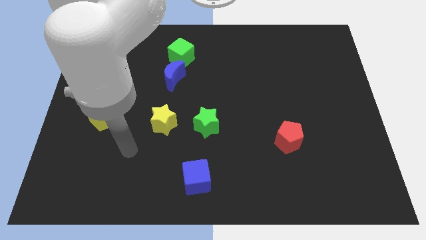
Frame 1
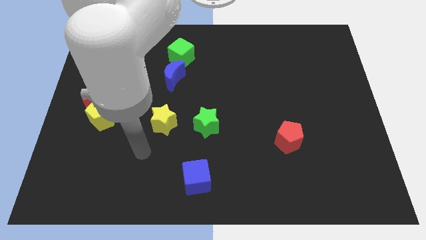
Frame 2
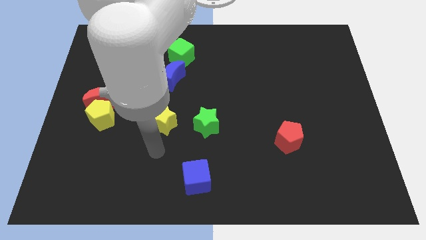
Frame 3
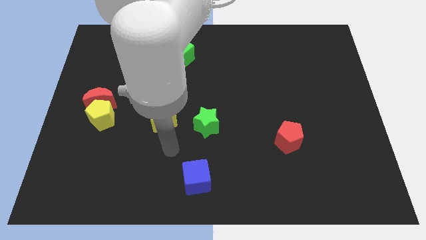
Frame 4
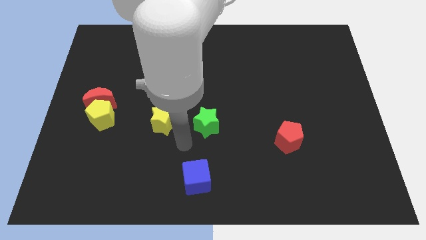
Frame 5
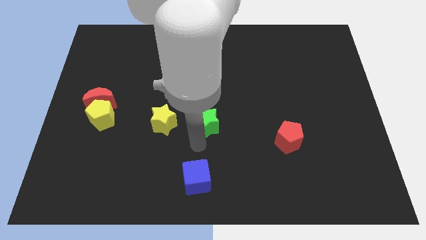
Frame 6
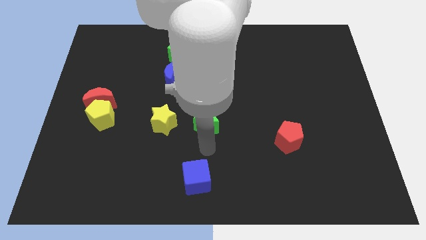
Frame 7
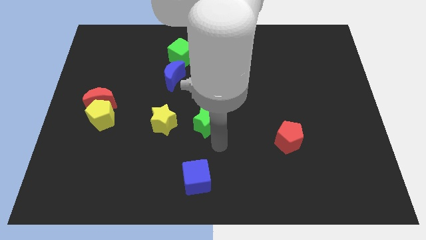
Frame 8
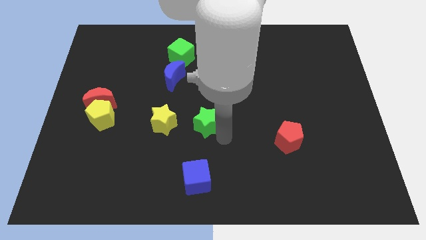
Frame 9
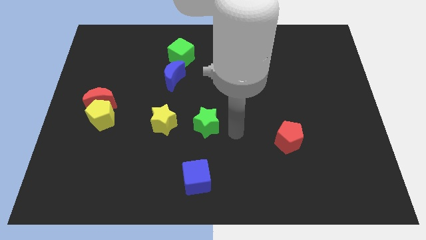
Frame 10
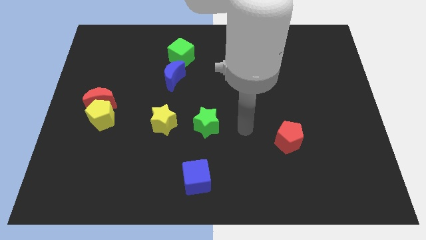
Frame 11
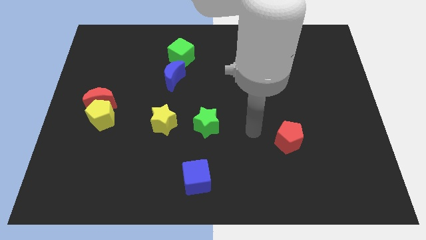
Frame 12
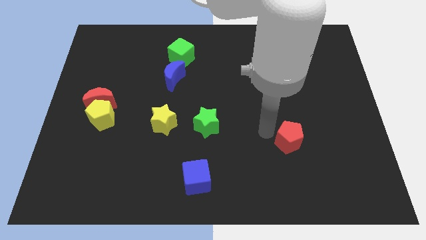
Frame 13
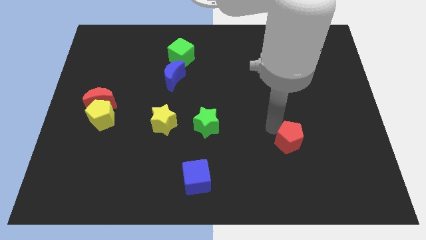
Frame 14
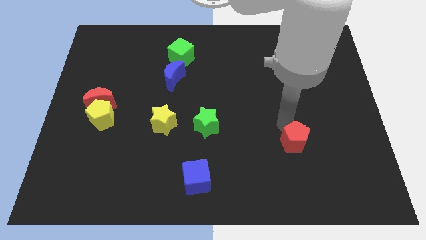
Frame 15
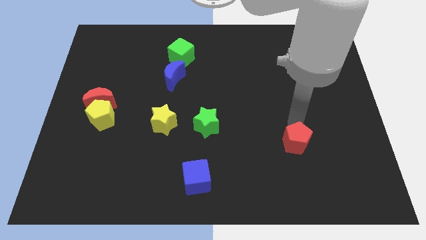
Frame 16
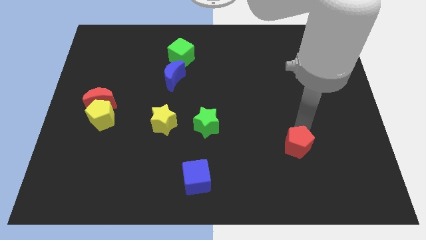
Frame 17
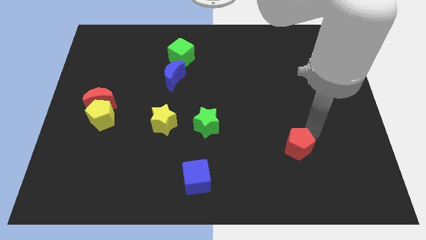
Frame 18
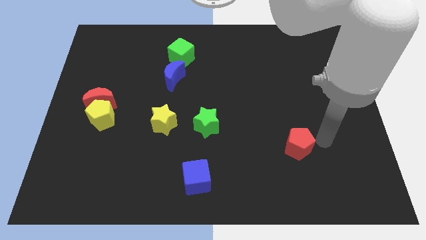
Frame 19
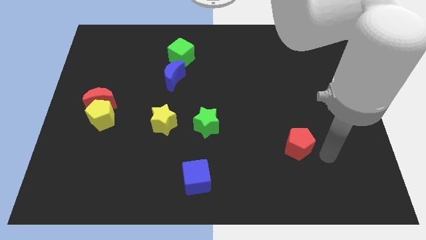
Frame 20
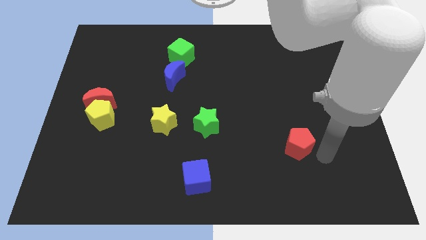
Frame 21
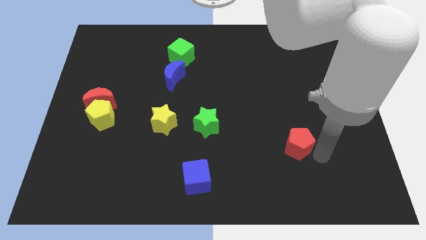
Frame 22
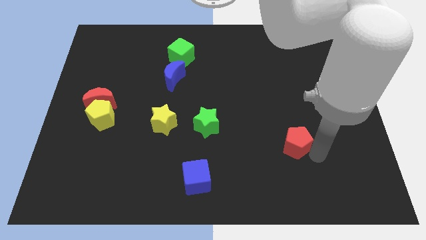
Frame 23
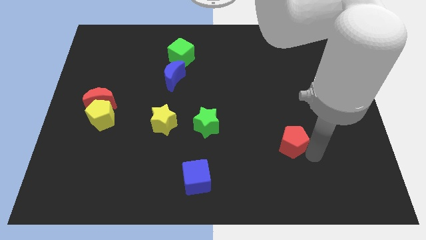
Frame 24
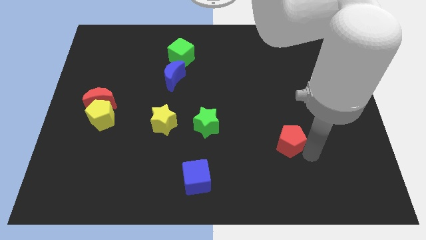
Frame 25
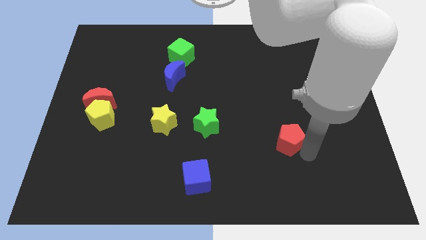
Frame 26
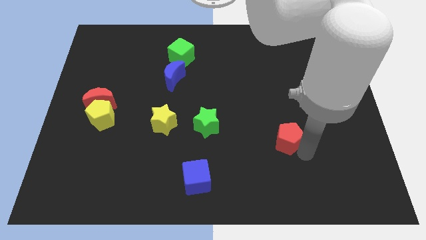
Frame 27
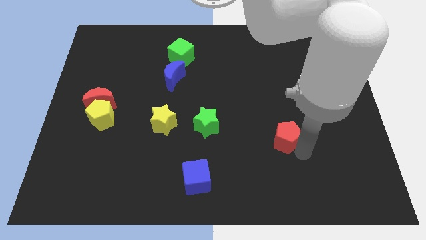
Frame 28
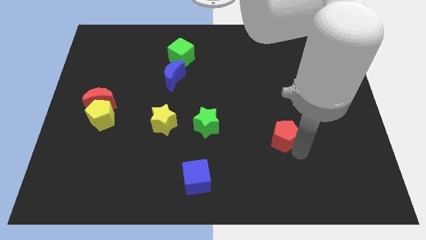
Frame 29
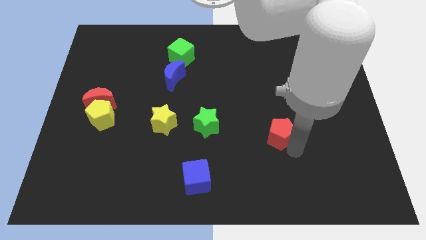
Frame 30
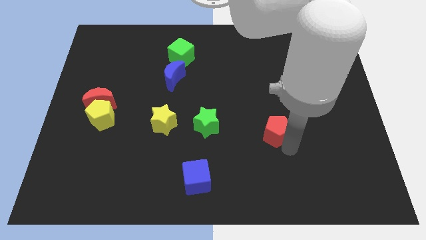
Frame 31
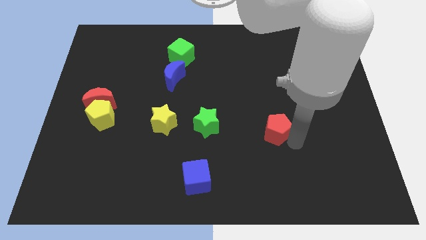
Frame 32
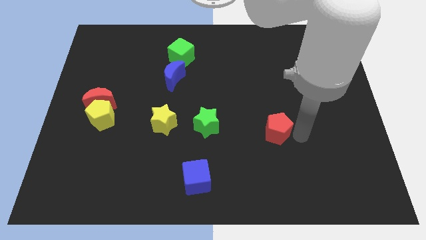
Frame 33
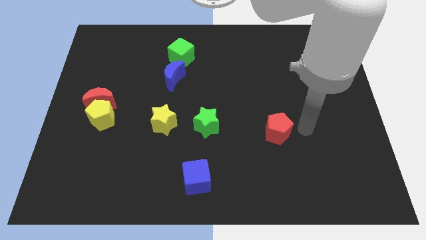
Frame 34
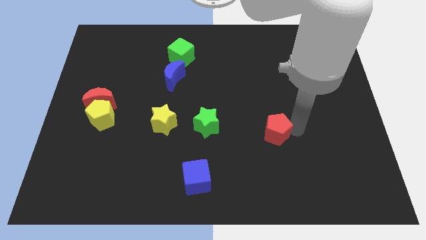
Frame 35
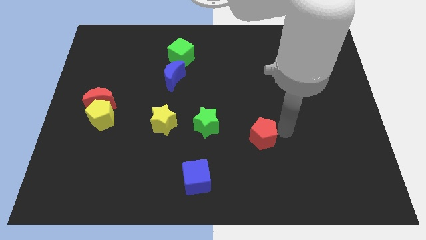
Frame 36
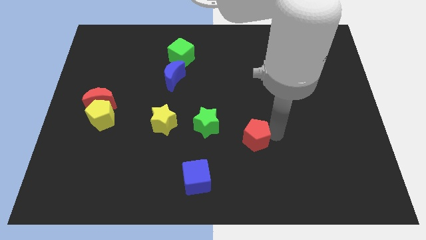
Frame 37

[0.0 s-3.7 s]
slightly move the red pentagon to the left

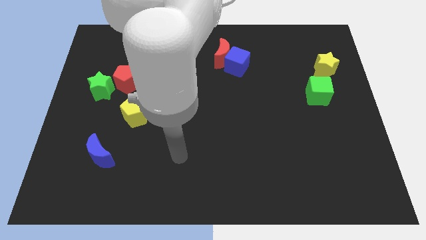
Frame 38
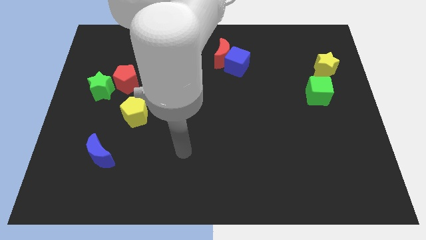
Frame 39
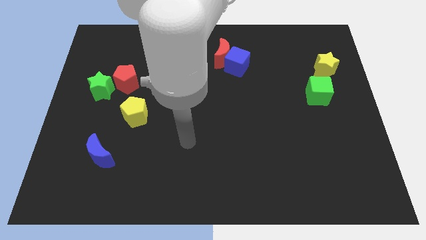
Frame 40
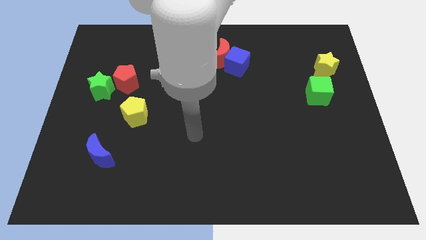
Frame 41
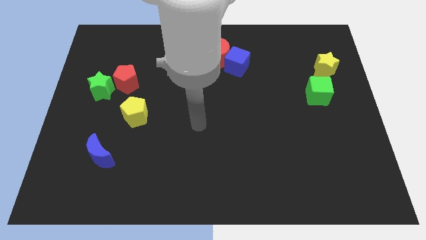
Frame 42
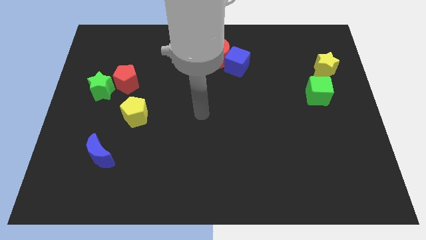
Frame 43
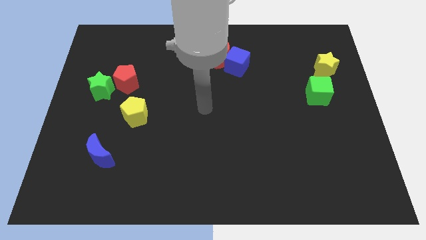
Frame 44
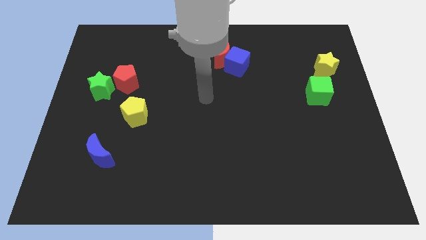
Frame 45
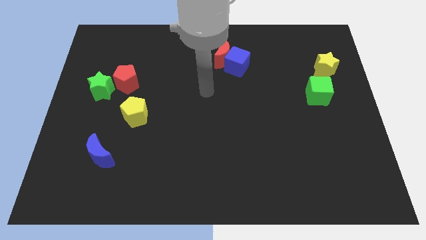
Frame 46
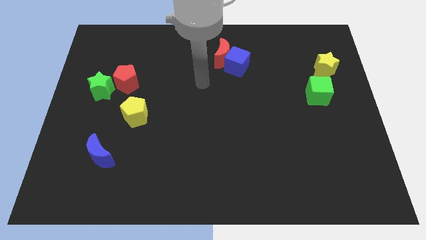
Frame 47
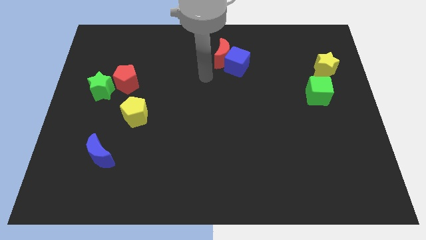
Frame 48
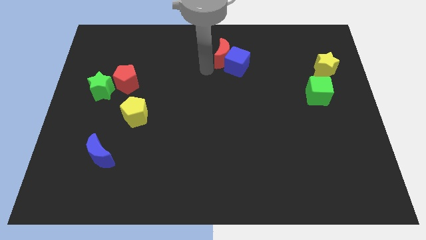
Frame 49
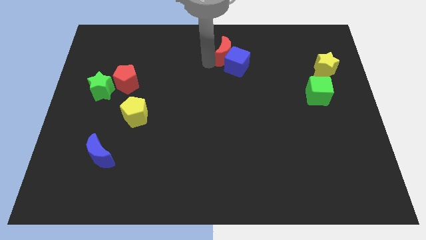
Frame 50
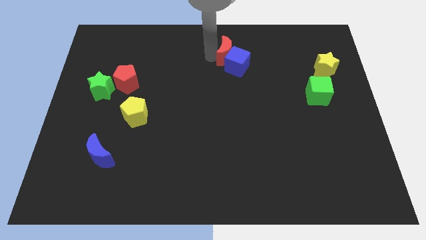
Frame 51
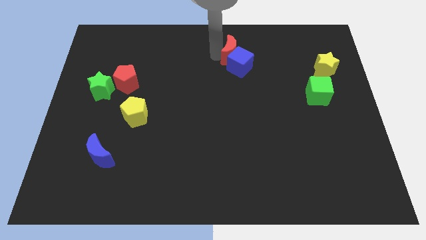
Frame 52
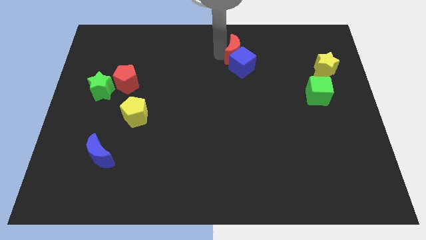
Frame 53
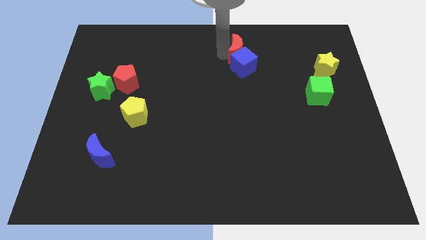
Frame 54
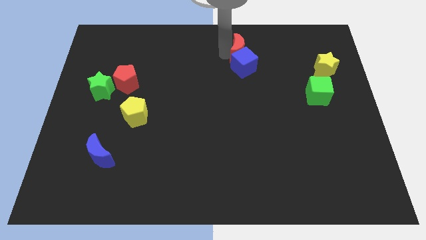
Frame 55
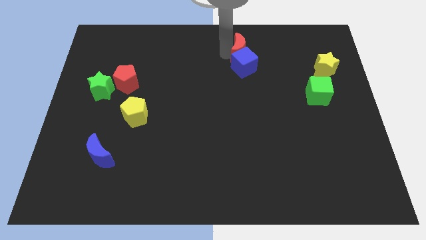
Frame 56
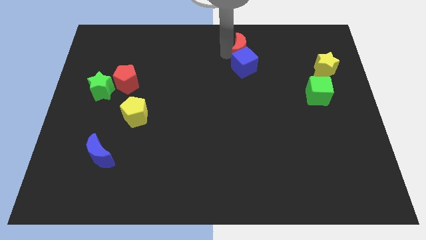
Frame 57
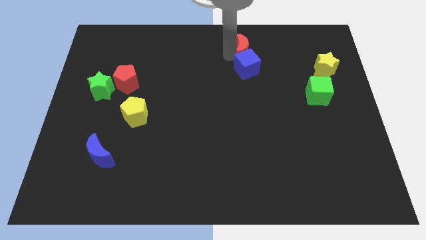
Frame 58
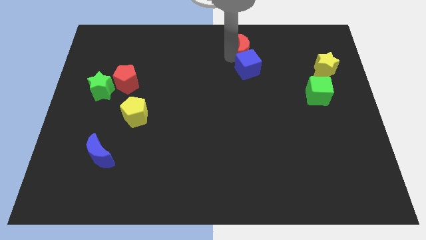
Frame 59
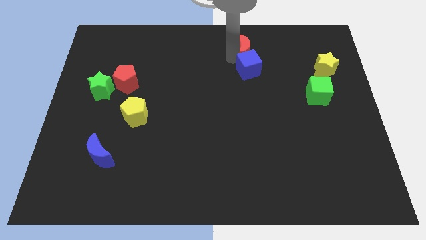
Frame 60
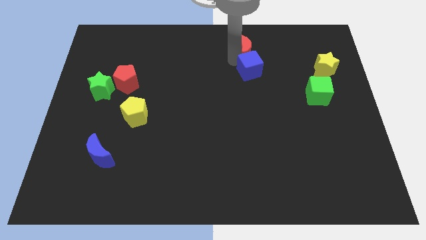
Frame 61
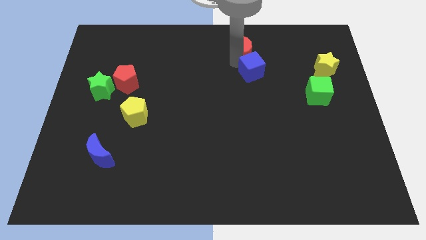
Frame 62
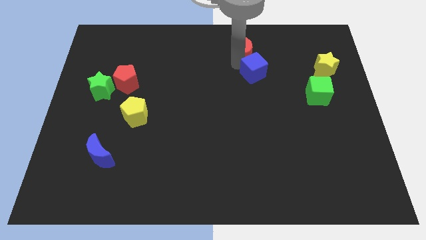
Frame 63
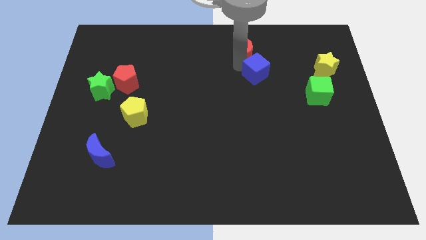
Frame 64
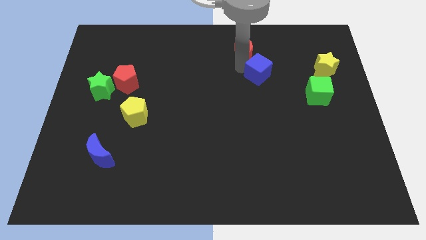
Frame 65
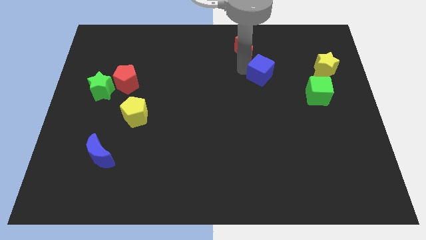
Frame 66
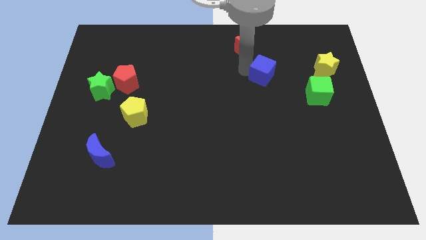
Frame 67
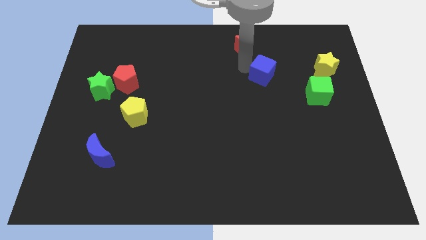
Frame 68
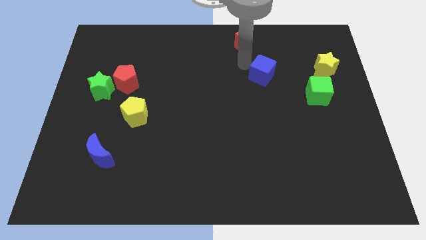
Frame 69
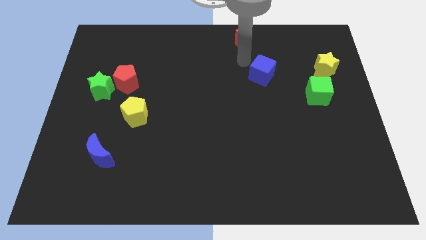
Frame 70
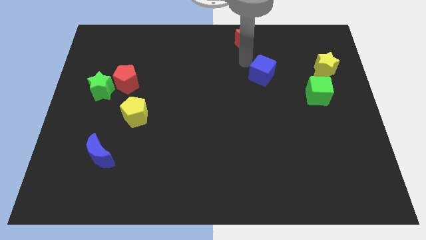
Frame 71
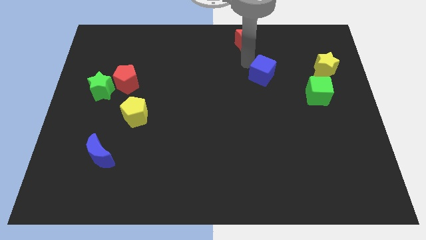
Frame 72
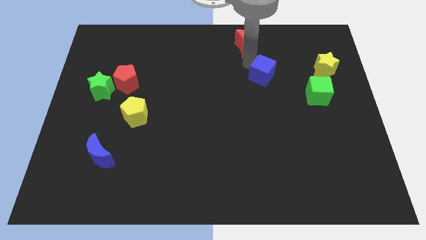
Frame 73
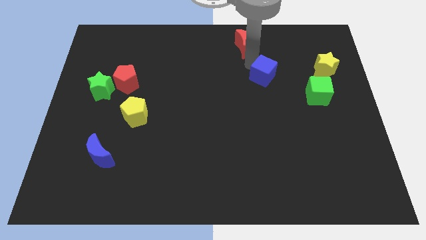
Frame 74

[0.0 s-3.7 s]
slightly move the blue cube diagonally downwards and to the right

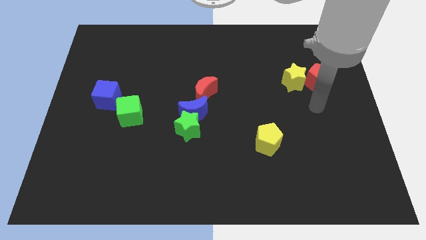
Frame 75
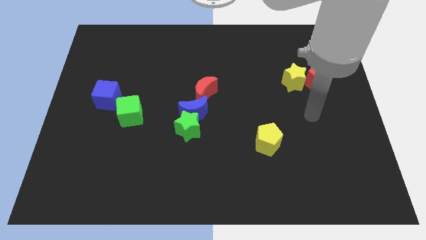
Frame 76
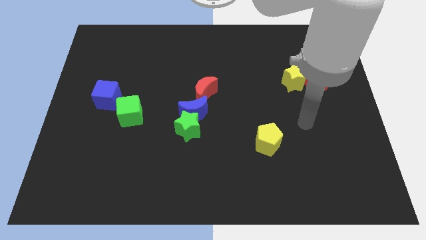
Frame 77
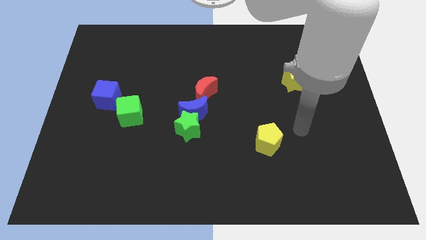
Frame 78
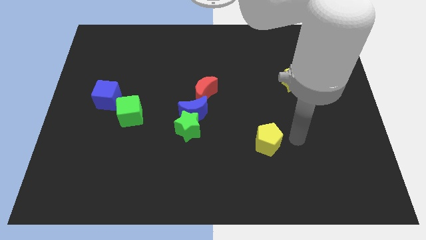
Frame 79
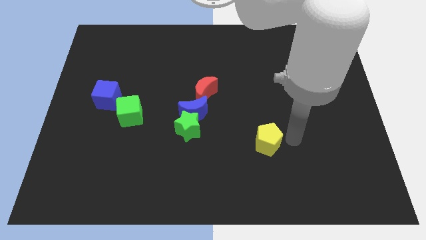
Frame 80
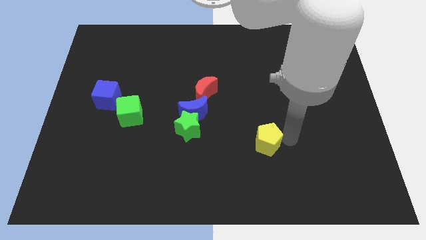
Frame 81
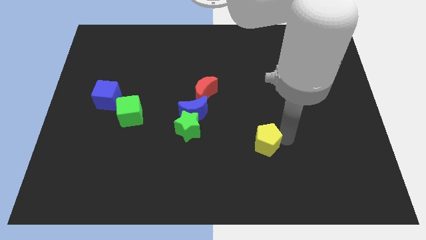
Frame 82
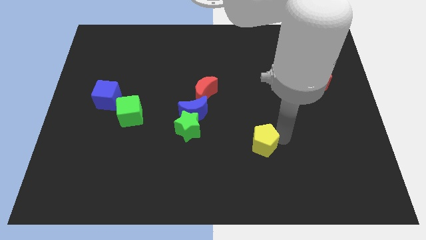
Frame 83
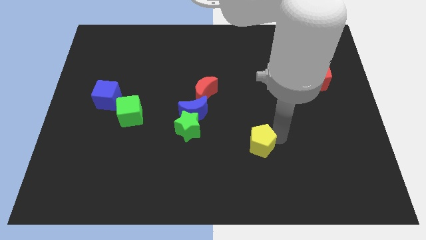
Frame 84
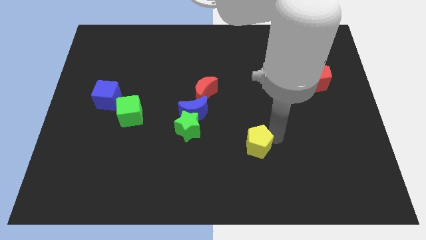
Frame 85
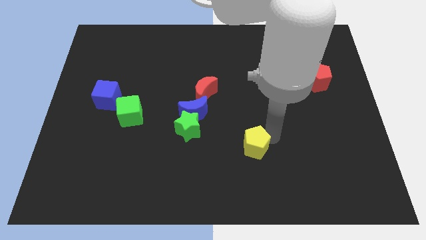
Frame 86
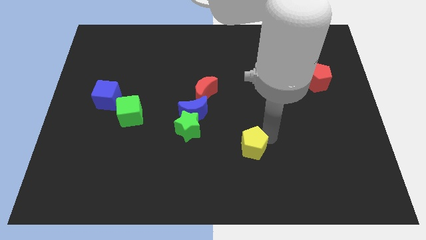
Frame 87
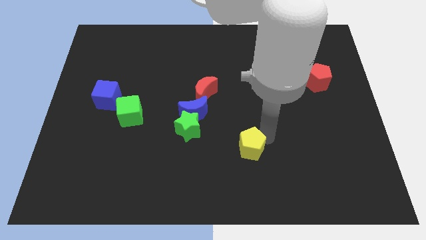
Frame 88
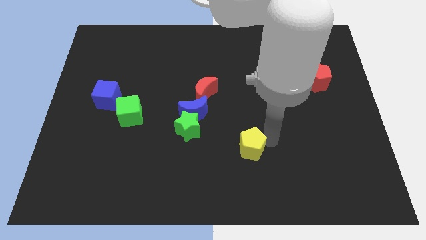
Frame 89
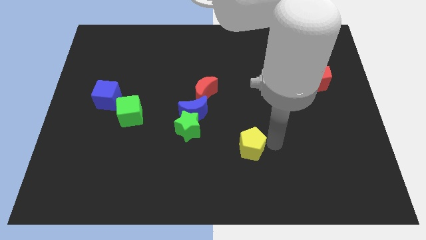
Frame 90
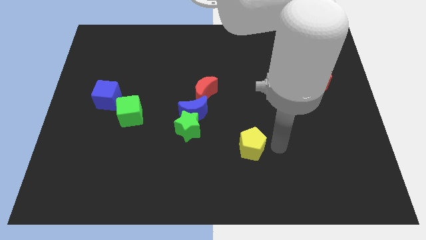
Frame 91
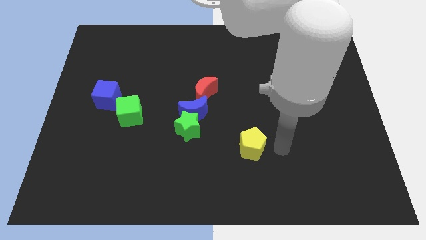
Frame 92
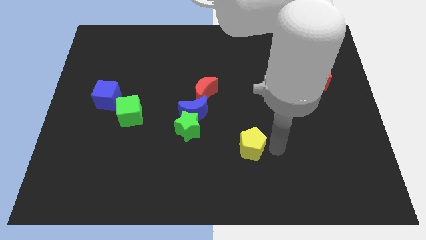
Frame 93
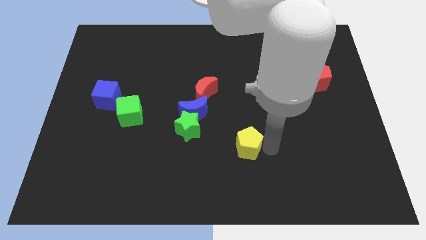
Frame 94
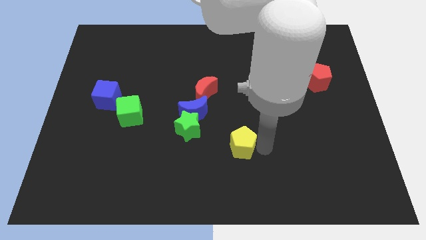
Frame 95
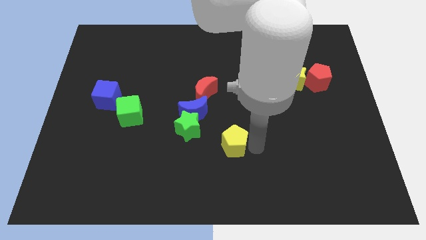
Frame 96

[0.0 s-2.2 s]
slightly slide the yellow pentagon to the left
